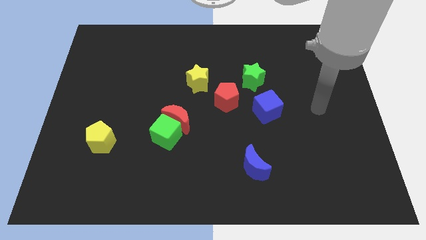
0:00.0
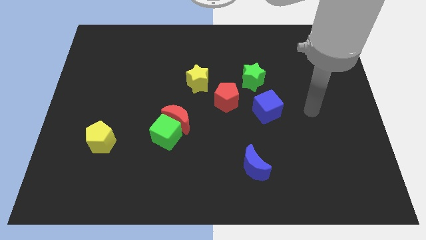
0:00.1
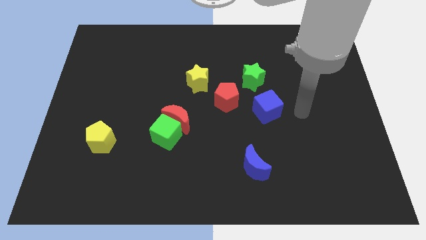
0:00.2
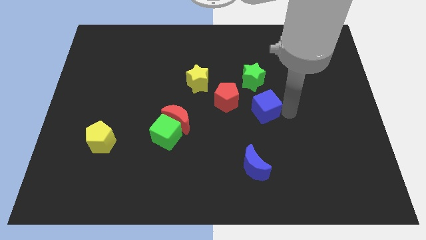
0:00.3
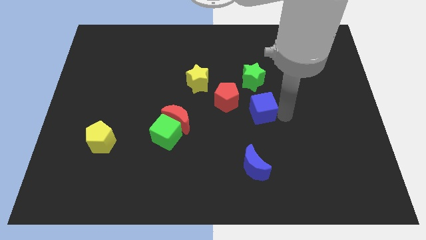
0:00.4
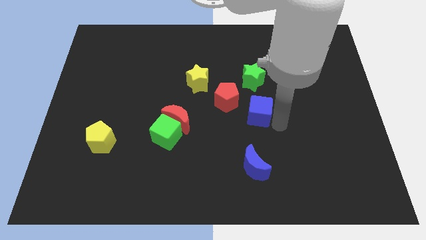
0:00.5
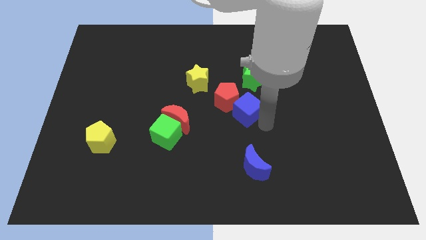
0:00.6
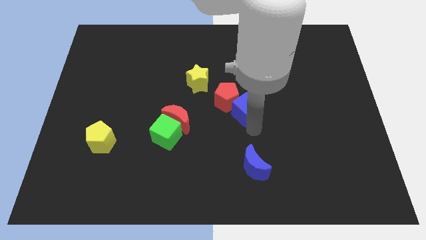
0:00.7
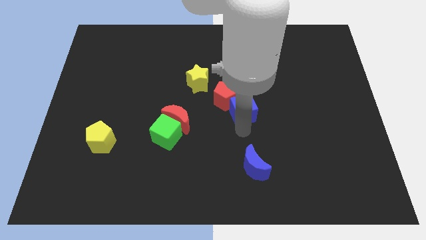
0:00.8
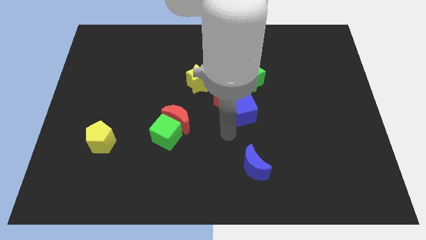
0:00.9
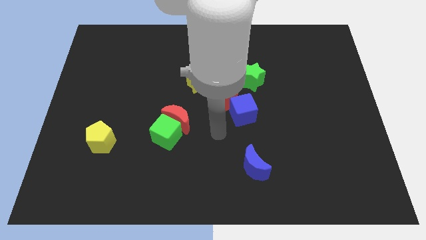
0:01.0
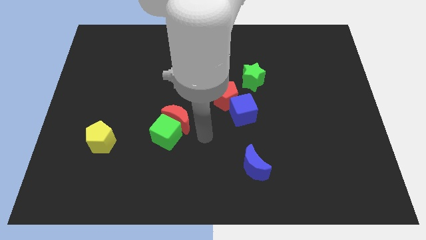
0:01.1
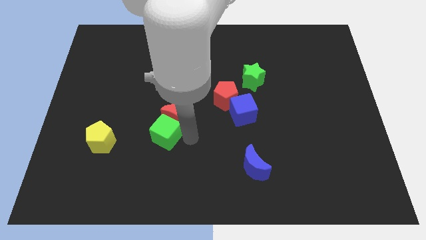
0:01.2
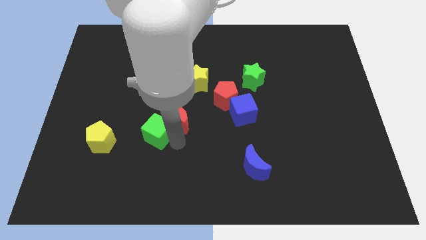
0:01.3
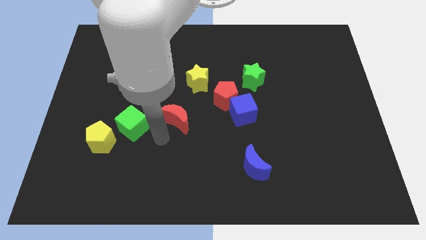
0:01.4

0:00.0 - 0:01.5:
move the red moon away from the green cube

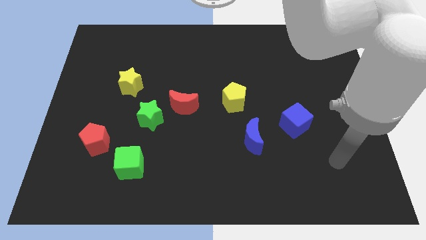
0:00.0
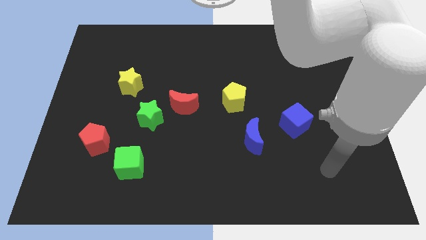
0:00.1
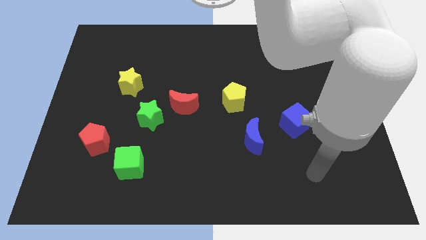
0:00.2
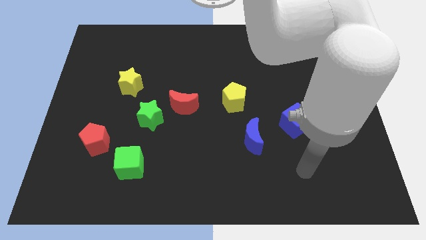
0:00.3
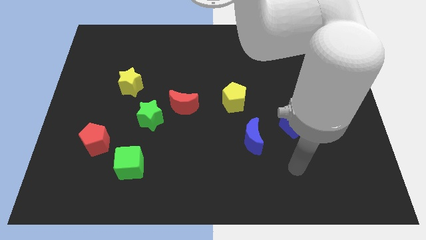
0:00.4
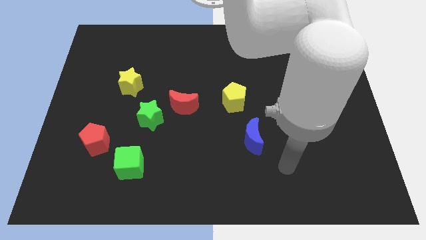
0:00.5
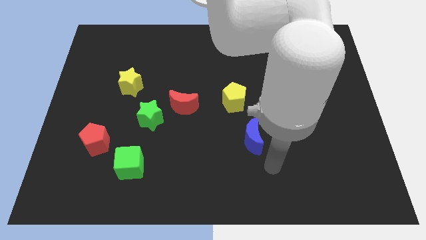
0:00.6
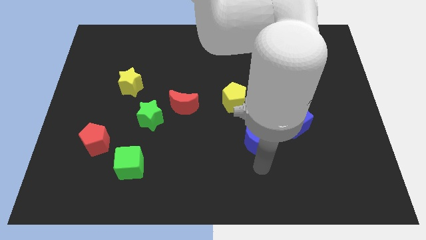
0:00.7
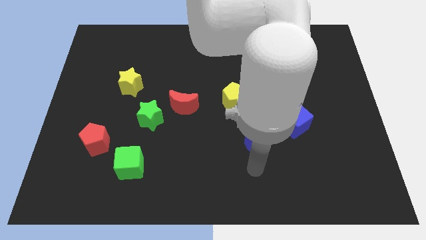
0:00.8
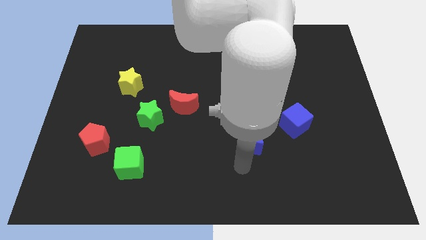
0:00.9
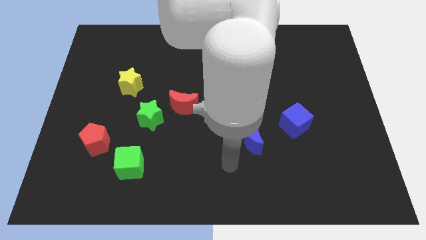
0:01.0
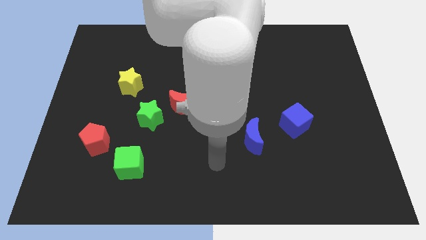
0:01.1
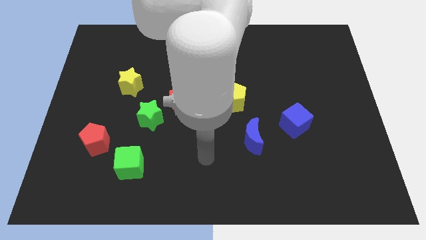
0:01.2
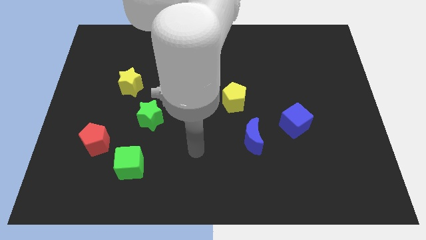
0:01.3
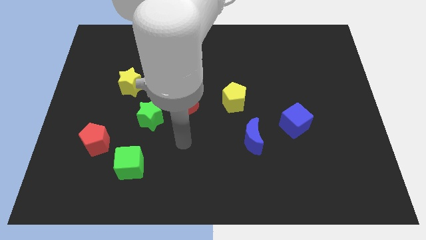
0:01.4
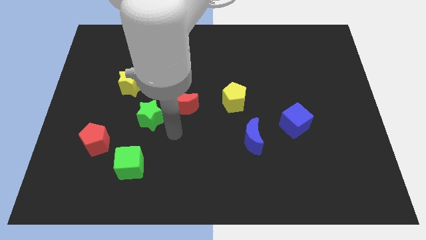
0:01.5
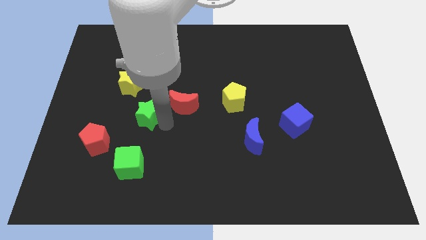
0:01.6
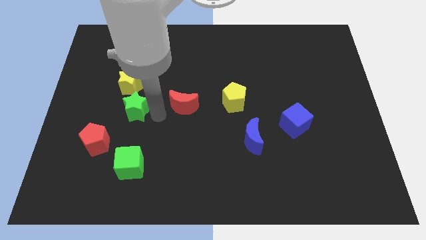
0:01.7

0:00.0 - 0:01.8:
pull the red moon apart from the green star

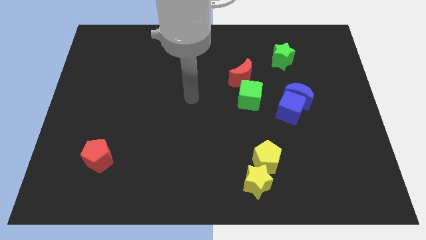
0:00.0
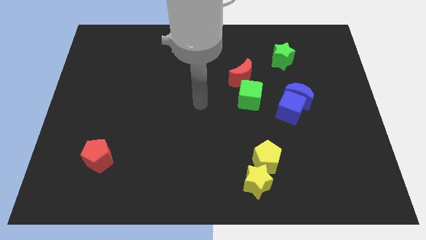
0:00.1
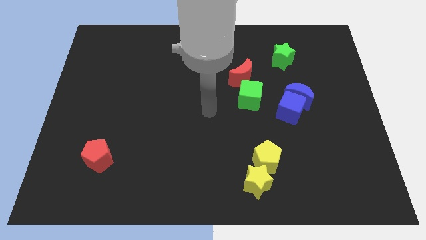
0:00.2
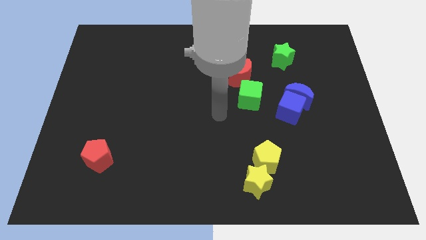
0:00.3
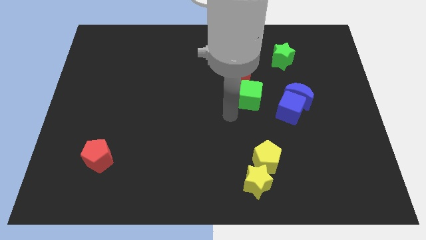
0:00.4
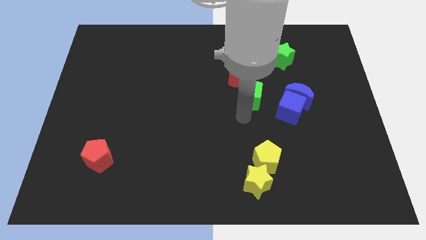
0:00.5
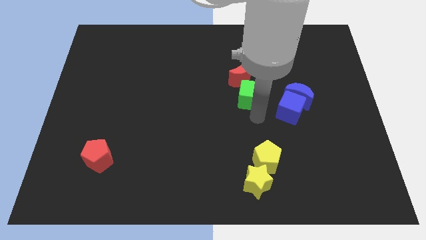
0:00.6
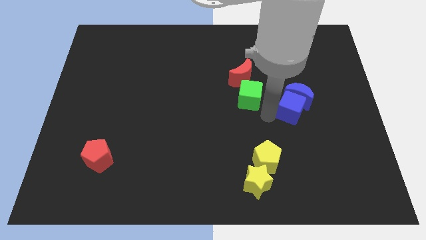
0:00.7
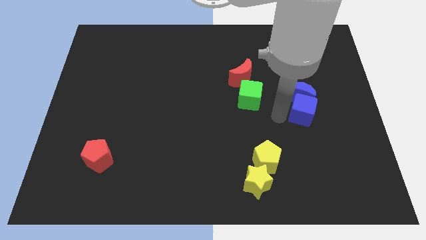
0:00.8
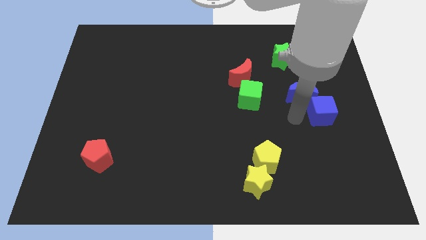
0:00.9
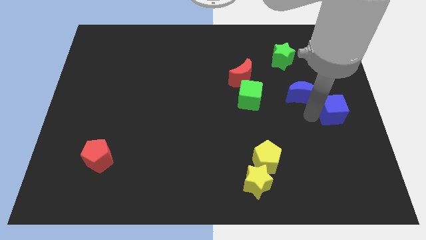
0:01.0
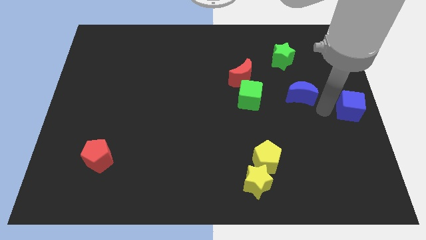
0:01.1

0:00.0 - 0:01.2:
move the blue moon away from the blue cube

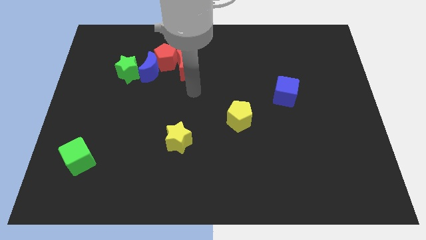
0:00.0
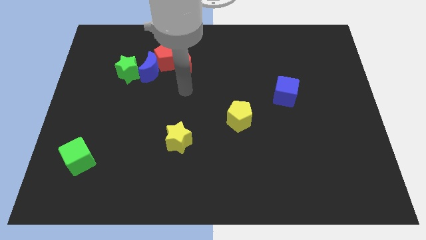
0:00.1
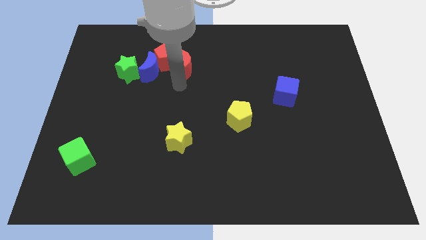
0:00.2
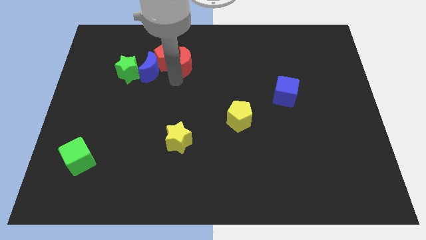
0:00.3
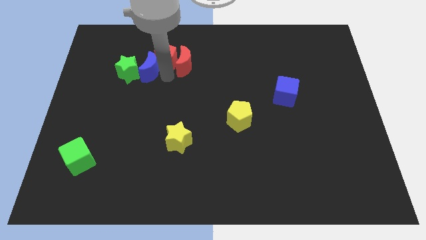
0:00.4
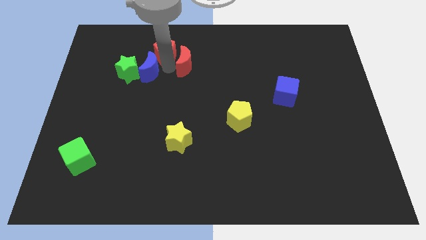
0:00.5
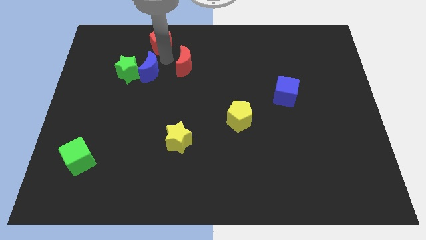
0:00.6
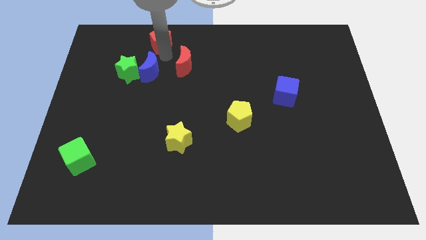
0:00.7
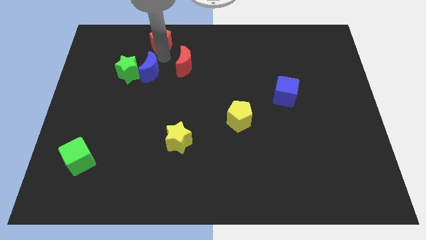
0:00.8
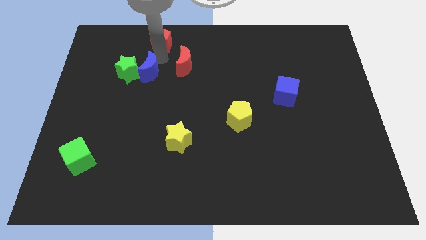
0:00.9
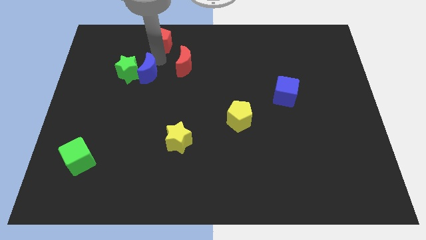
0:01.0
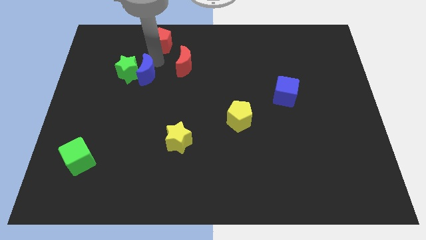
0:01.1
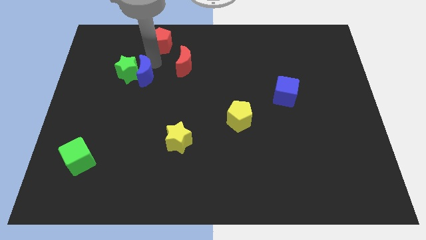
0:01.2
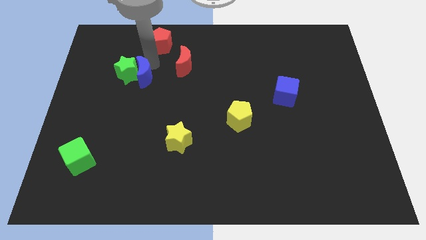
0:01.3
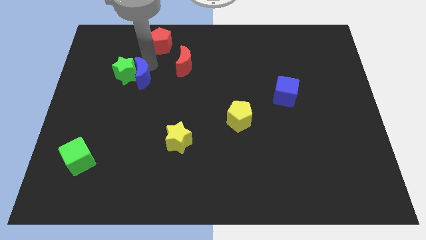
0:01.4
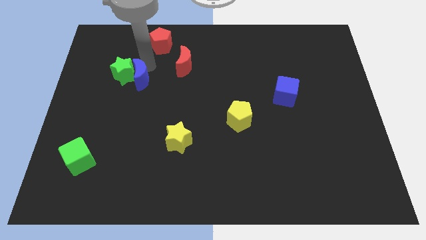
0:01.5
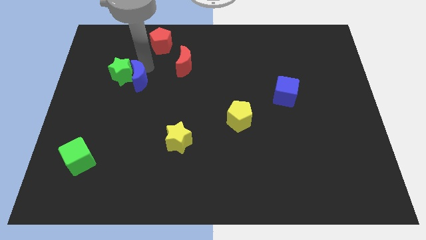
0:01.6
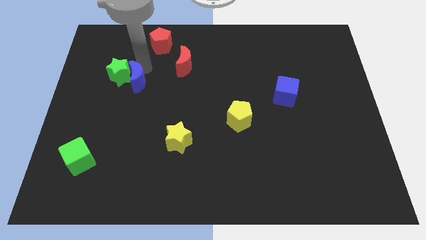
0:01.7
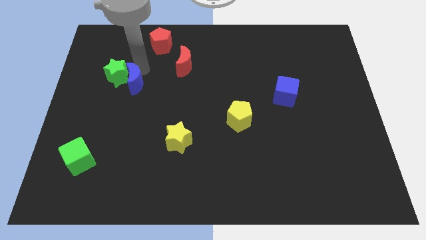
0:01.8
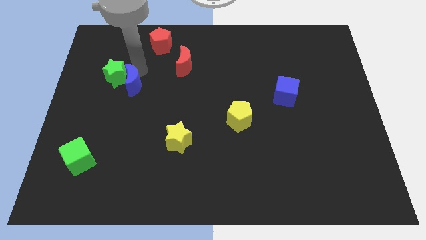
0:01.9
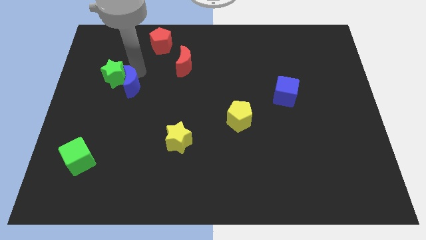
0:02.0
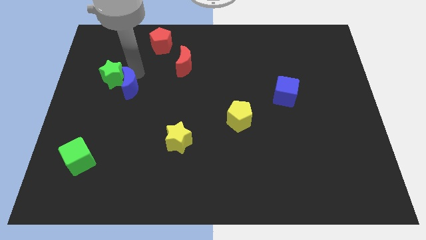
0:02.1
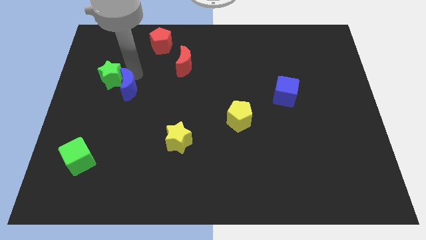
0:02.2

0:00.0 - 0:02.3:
move the blue moon away from the red pentagon, green star, and red moon

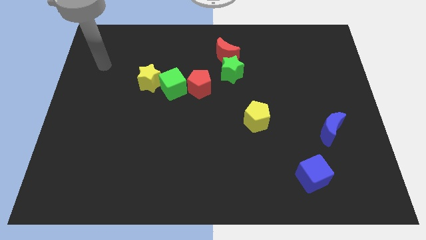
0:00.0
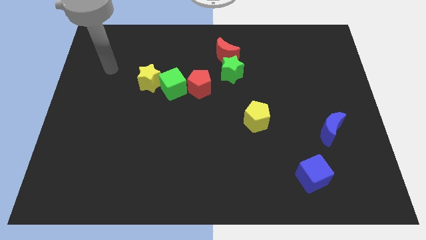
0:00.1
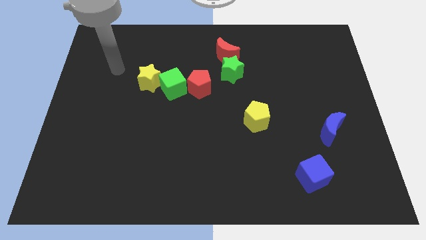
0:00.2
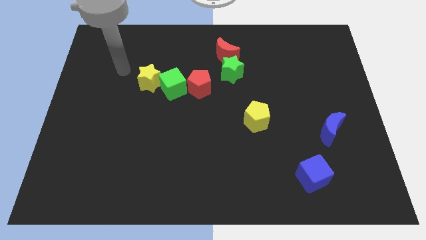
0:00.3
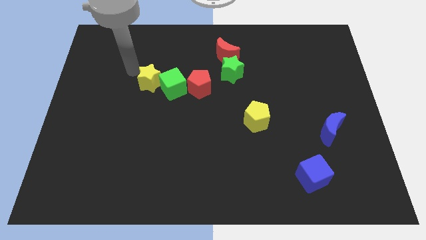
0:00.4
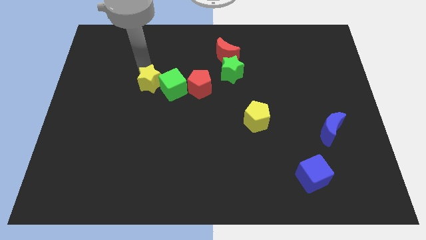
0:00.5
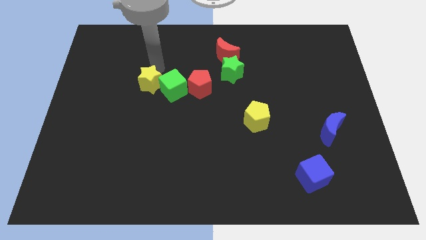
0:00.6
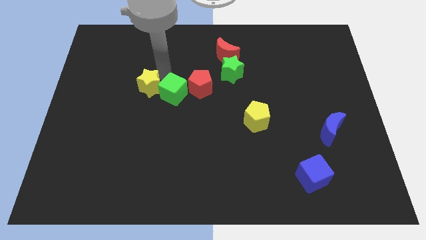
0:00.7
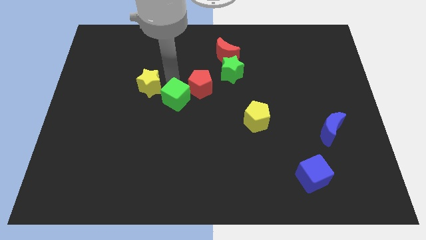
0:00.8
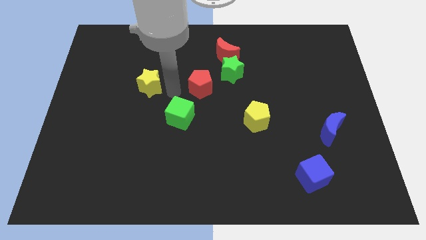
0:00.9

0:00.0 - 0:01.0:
pull the yellow star apart from the green cube

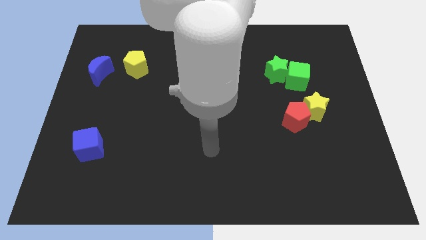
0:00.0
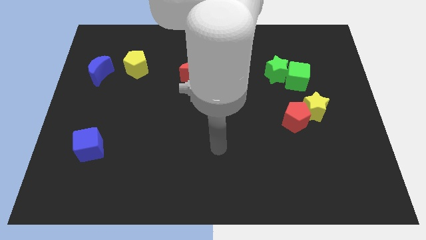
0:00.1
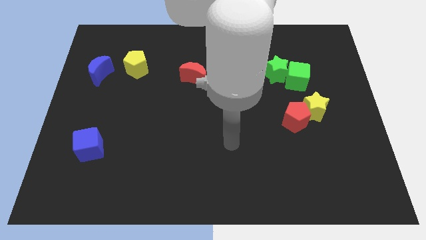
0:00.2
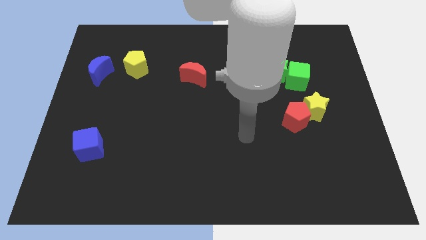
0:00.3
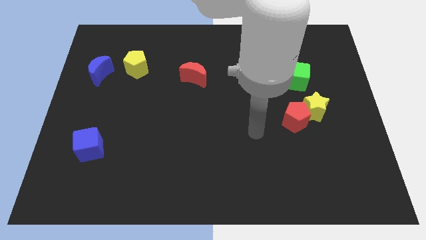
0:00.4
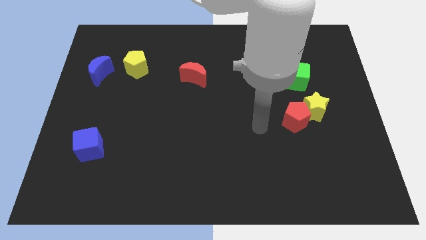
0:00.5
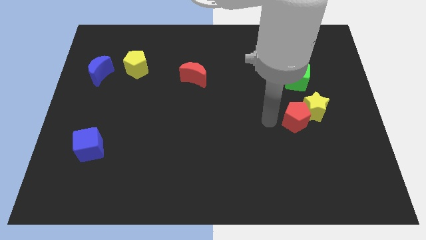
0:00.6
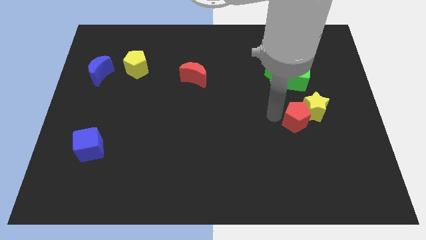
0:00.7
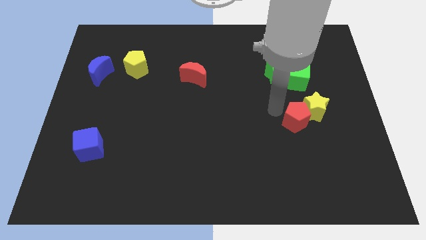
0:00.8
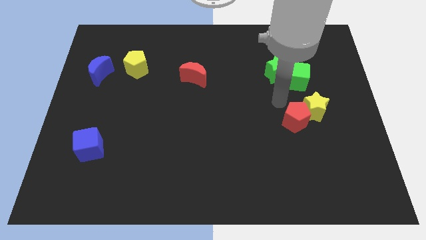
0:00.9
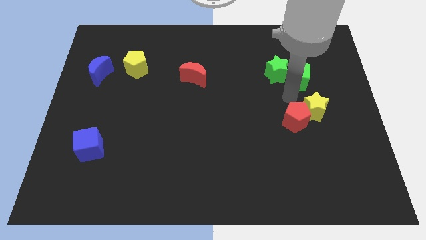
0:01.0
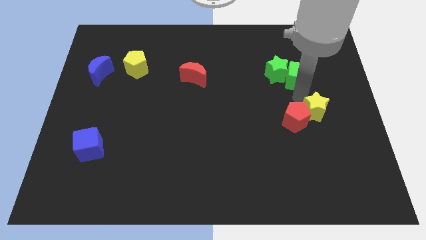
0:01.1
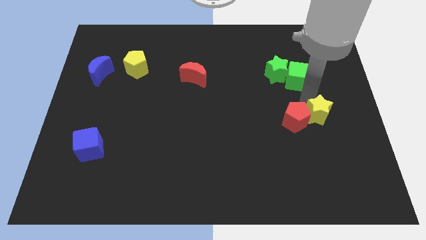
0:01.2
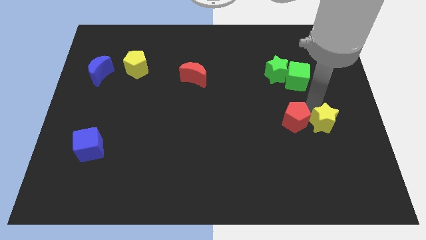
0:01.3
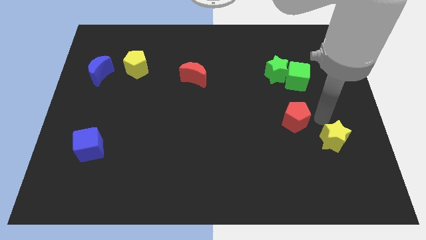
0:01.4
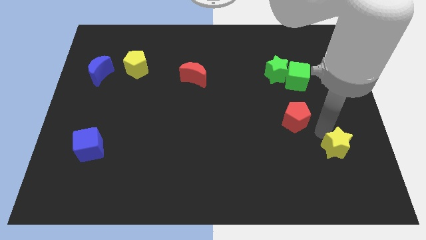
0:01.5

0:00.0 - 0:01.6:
move the red pentagon away from the yellow star
